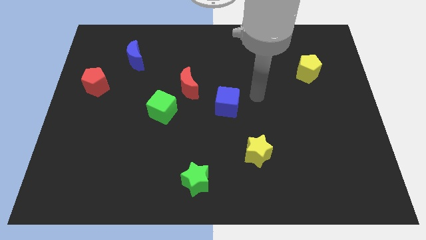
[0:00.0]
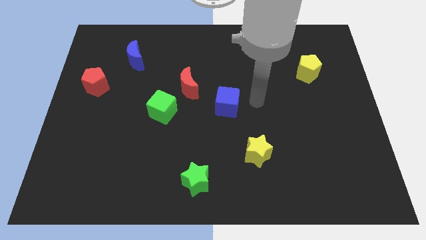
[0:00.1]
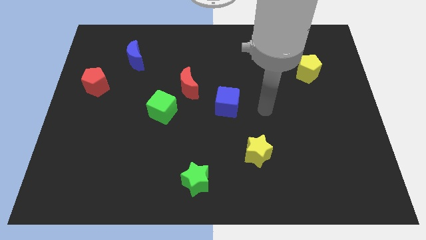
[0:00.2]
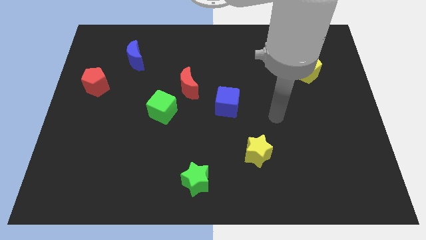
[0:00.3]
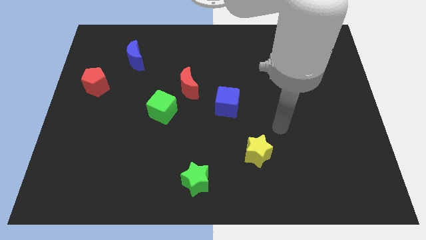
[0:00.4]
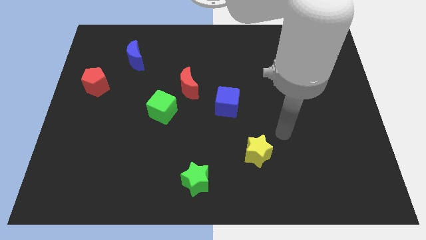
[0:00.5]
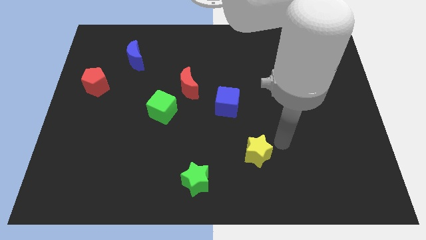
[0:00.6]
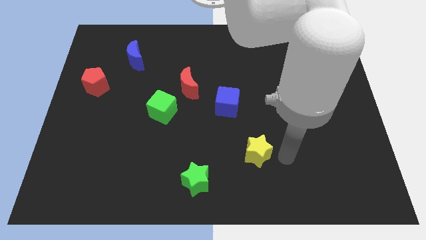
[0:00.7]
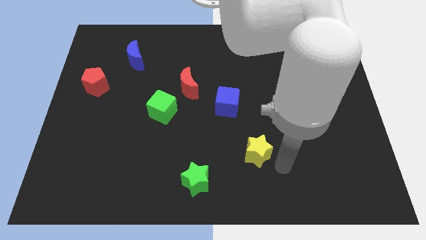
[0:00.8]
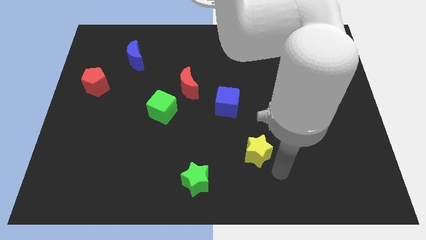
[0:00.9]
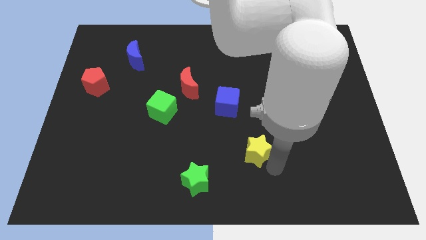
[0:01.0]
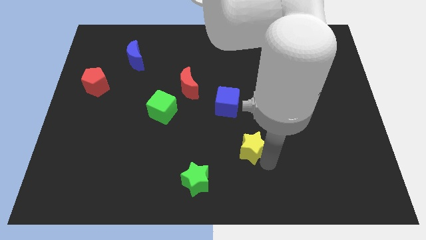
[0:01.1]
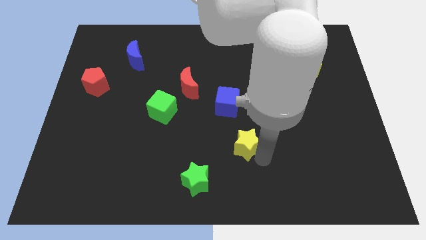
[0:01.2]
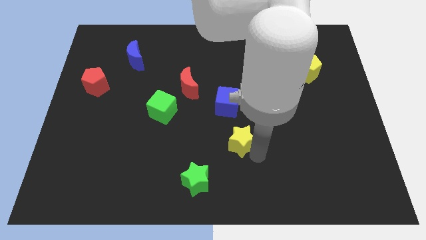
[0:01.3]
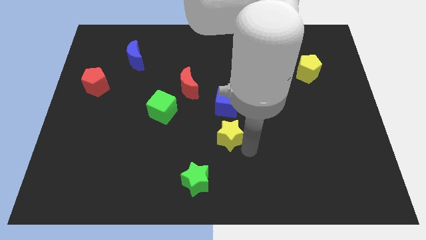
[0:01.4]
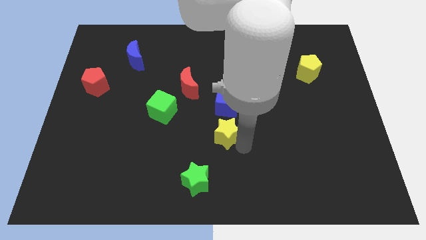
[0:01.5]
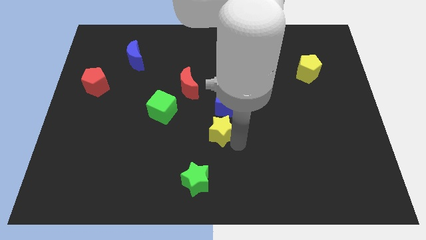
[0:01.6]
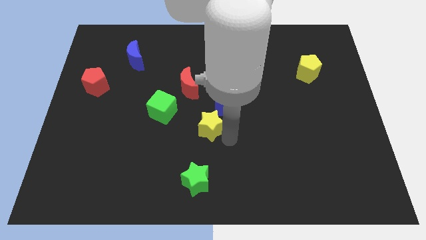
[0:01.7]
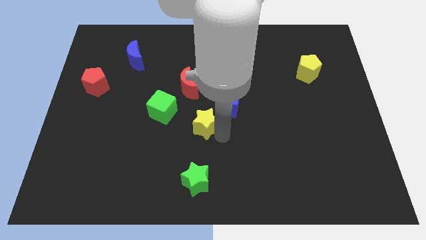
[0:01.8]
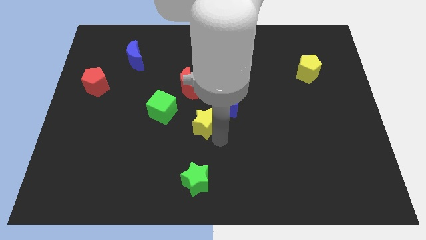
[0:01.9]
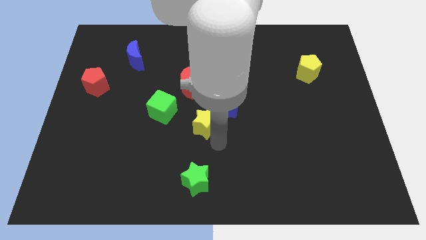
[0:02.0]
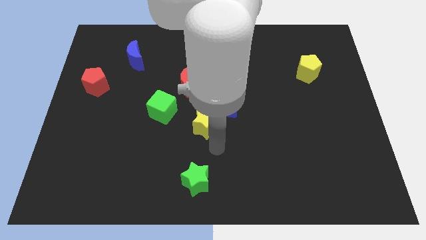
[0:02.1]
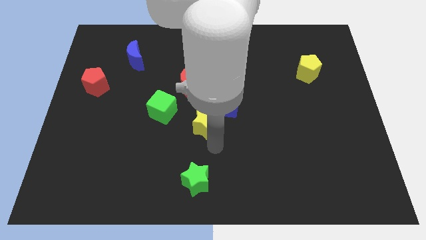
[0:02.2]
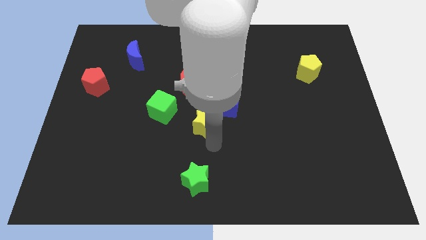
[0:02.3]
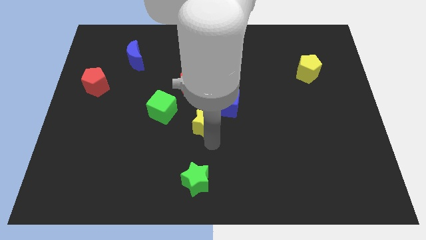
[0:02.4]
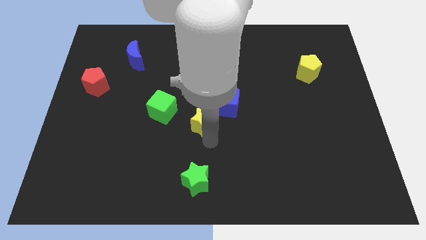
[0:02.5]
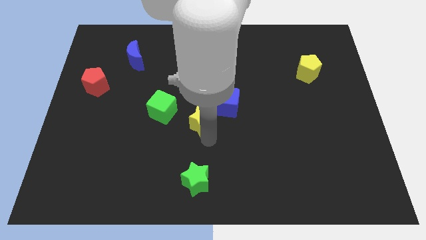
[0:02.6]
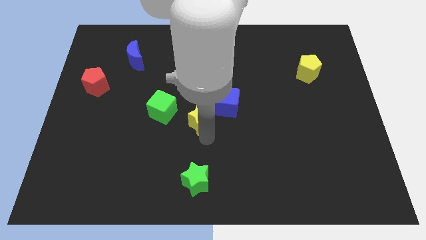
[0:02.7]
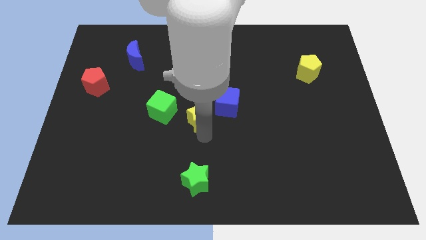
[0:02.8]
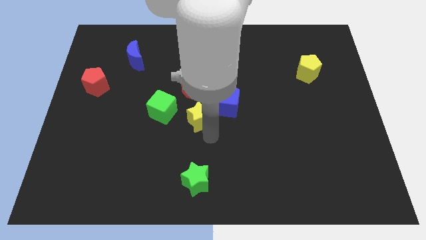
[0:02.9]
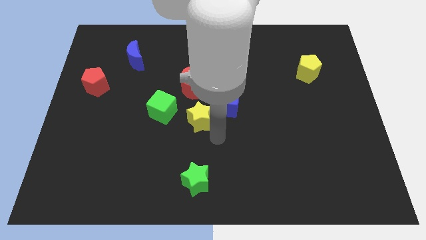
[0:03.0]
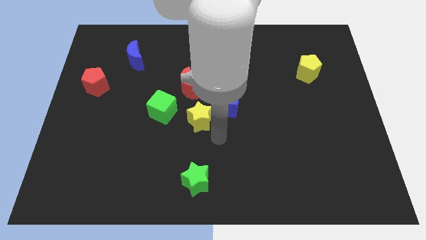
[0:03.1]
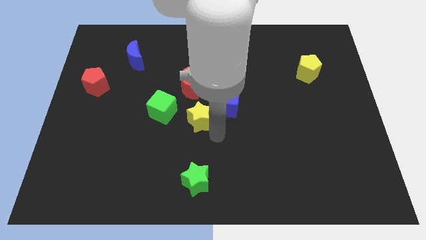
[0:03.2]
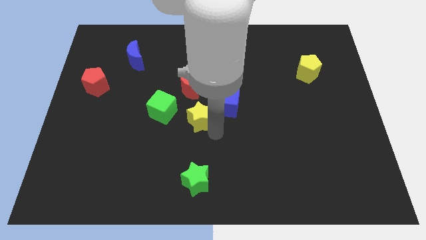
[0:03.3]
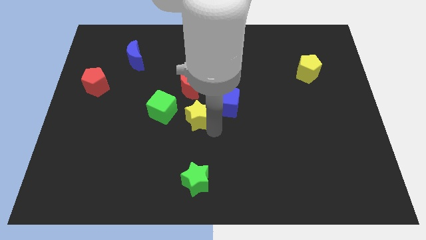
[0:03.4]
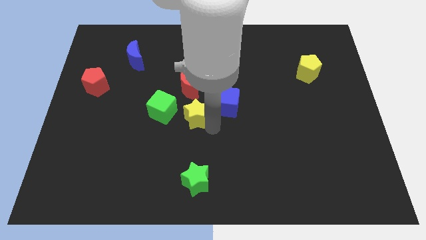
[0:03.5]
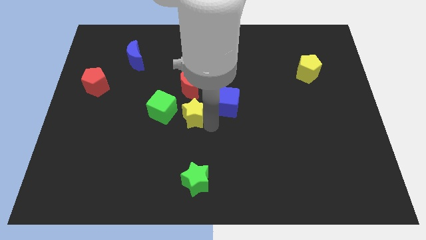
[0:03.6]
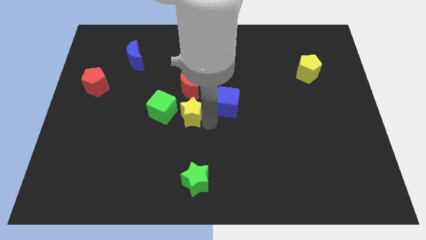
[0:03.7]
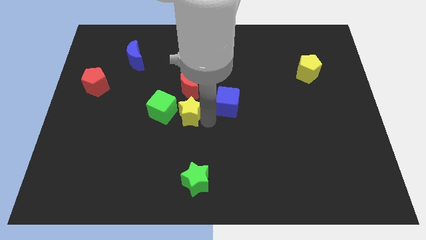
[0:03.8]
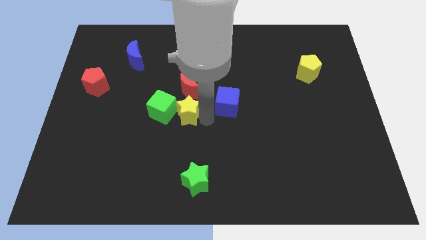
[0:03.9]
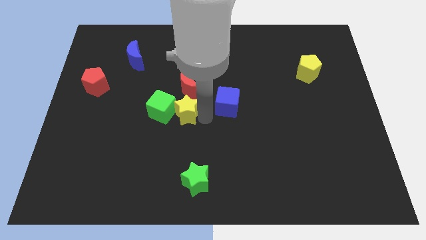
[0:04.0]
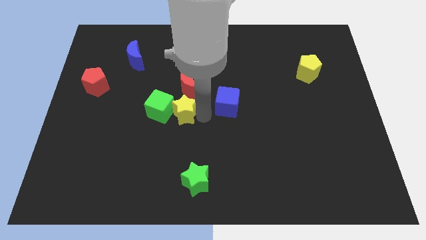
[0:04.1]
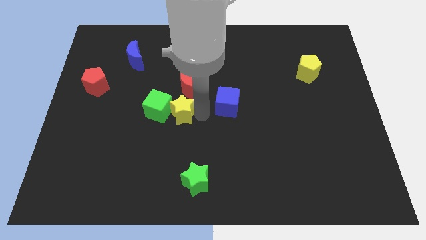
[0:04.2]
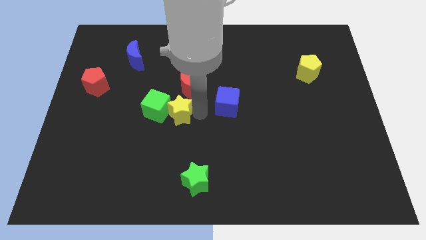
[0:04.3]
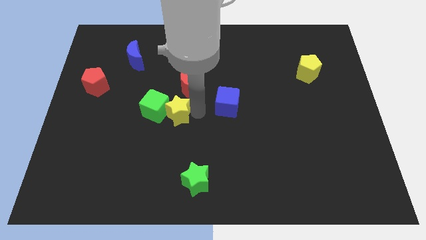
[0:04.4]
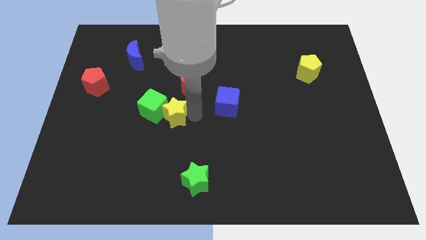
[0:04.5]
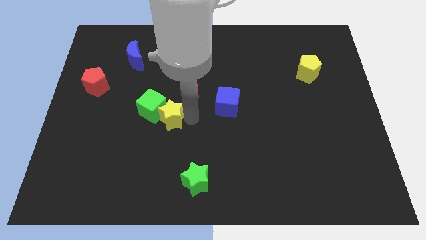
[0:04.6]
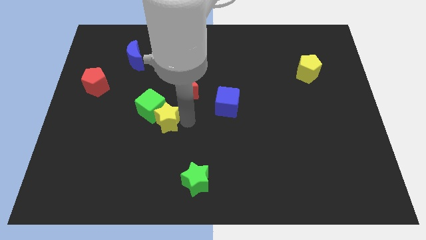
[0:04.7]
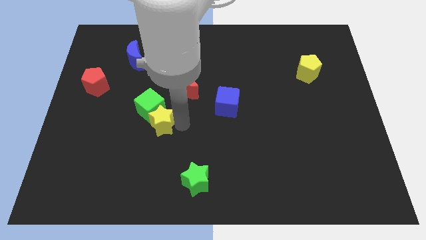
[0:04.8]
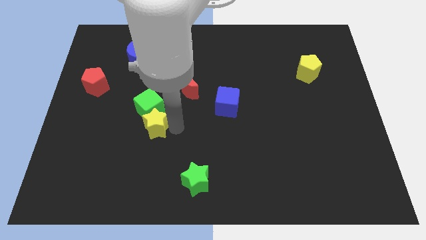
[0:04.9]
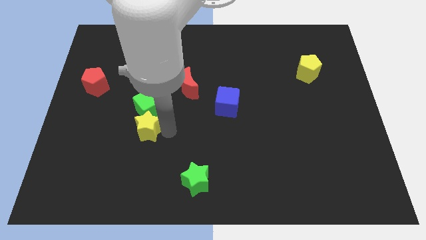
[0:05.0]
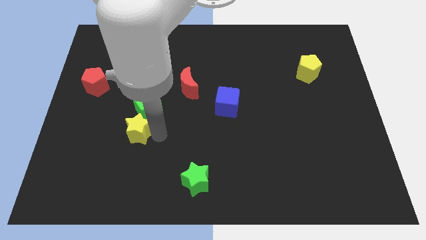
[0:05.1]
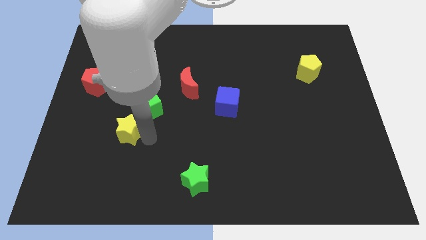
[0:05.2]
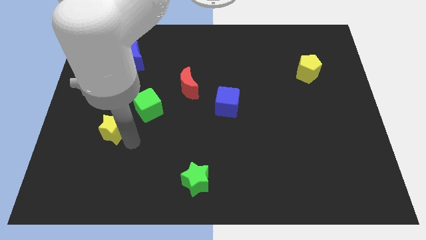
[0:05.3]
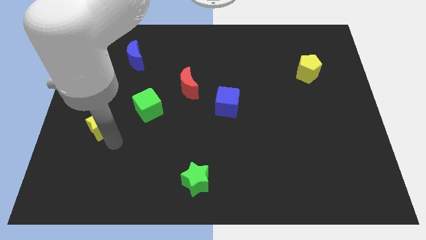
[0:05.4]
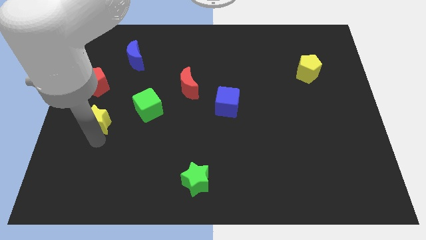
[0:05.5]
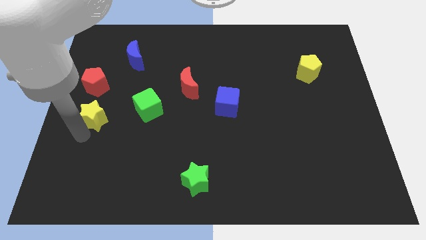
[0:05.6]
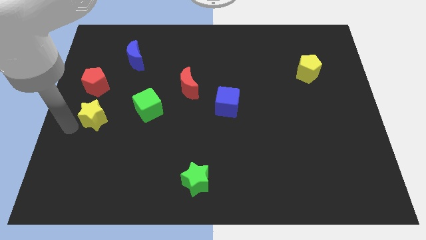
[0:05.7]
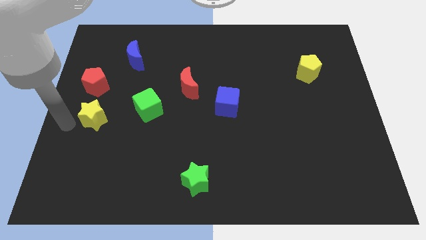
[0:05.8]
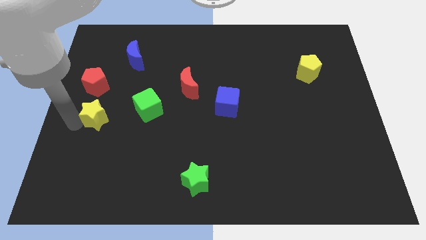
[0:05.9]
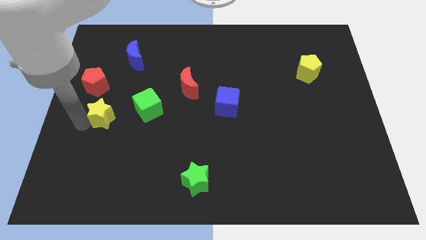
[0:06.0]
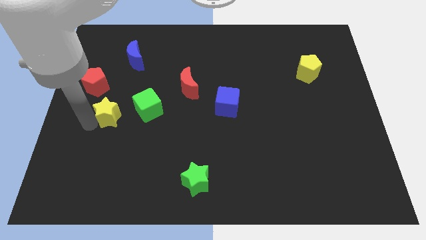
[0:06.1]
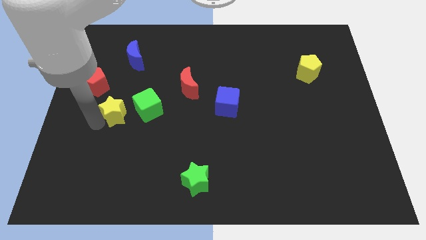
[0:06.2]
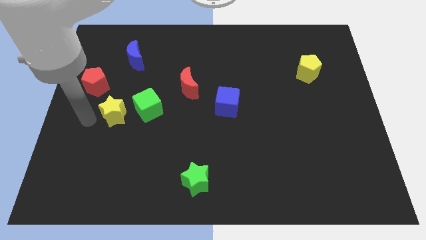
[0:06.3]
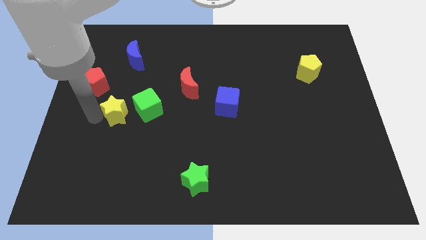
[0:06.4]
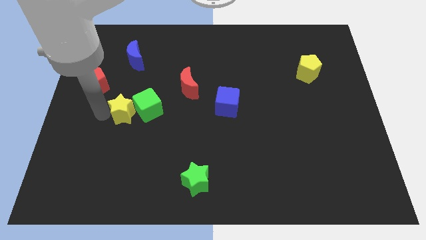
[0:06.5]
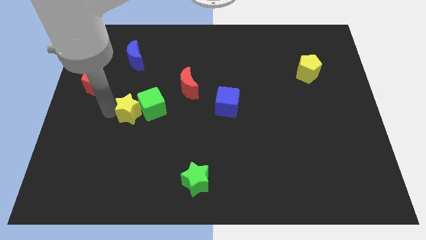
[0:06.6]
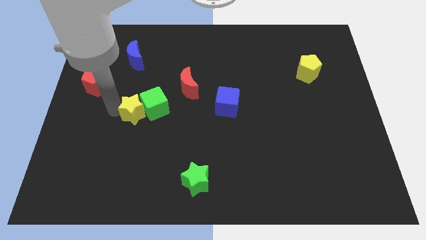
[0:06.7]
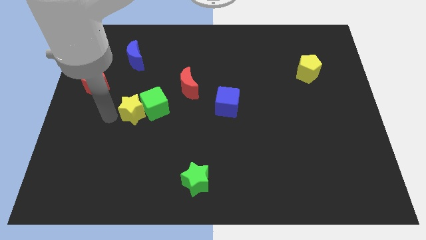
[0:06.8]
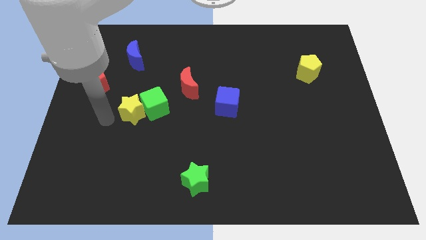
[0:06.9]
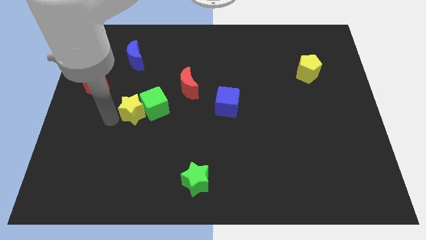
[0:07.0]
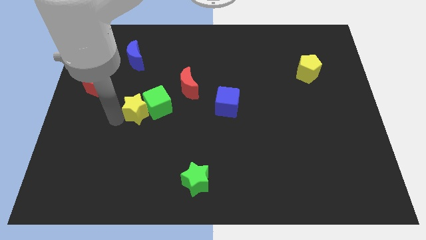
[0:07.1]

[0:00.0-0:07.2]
move the yellow star up and left

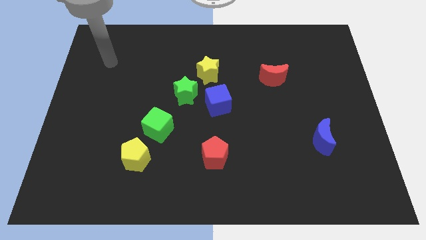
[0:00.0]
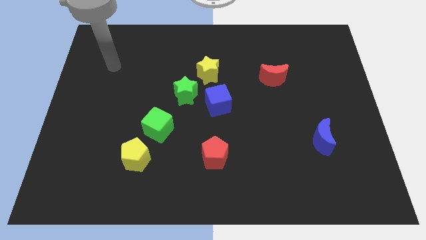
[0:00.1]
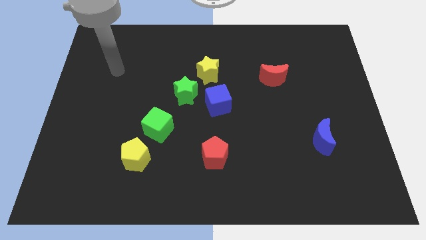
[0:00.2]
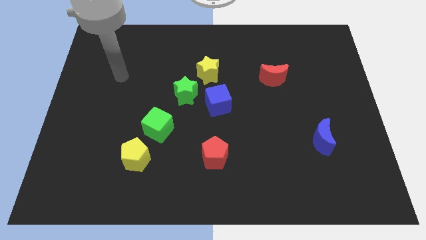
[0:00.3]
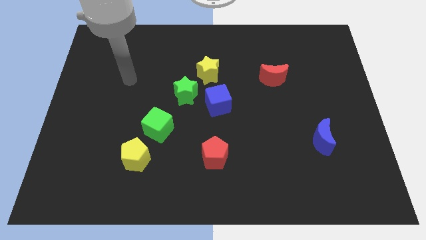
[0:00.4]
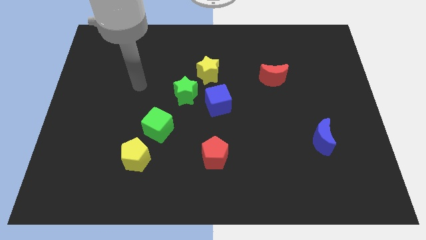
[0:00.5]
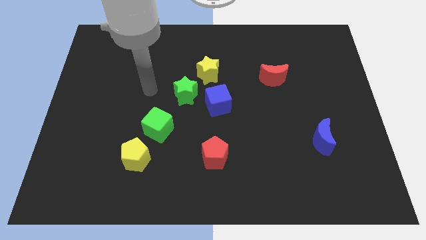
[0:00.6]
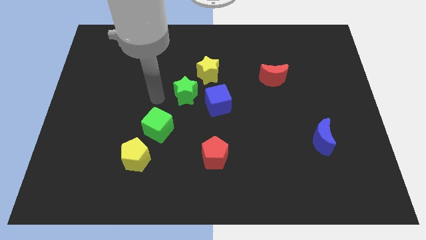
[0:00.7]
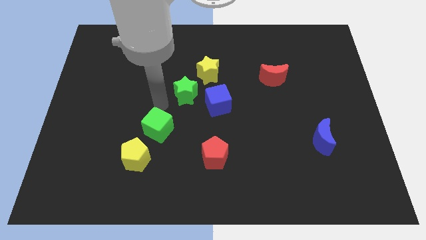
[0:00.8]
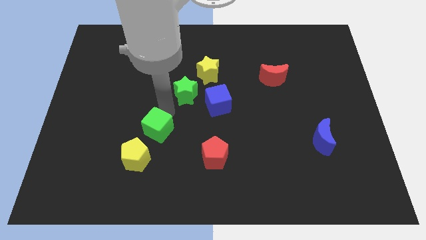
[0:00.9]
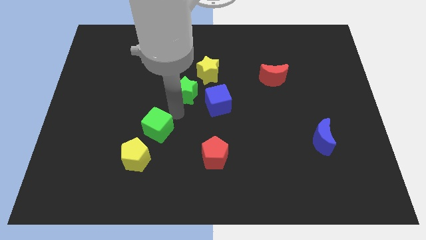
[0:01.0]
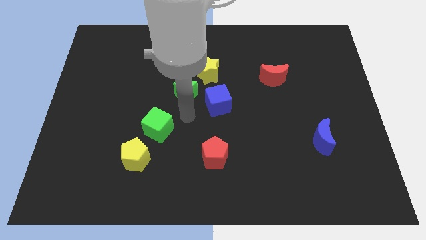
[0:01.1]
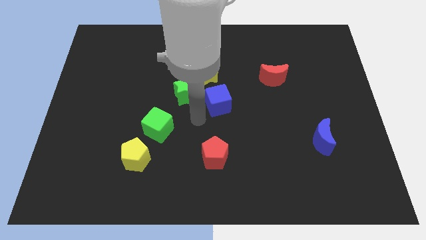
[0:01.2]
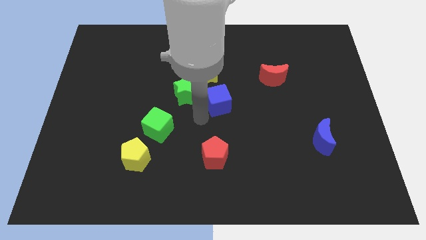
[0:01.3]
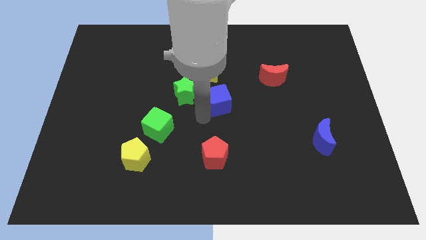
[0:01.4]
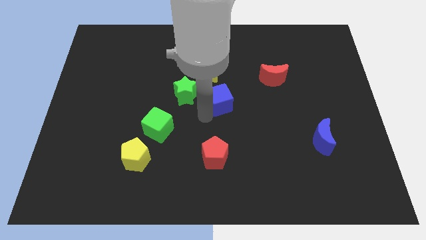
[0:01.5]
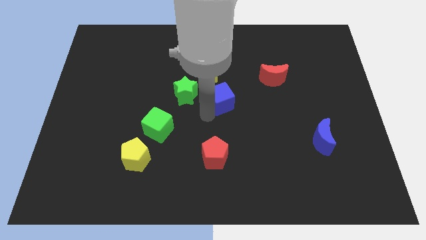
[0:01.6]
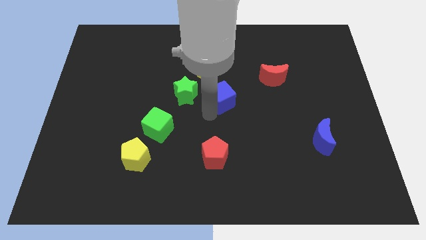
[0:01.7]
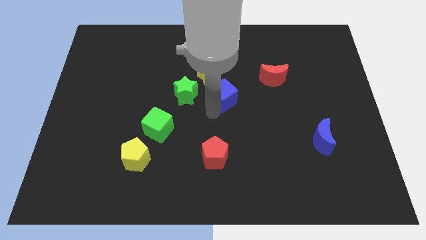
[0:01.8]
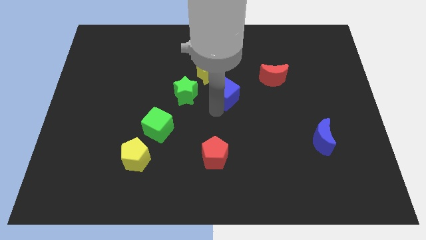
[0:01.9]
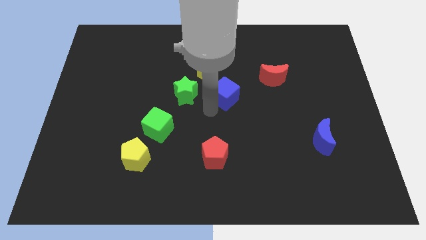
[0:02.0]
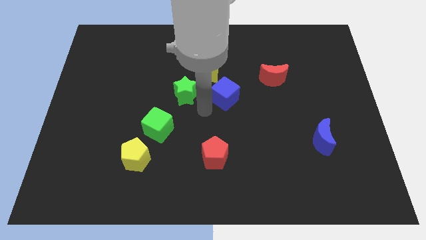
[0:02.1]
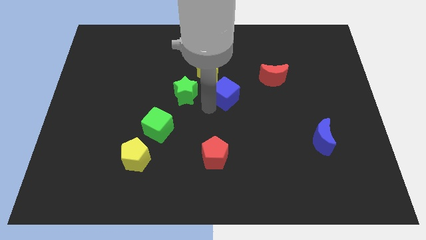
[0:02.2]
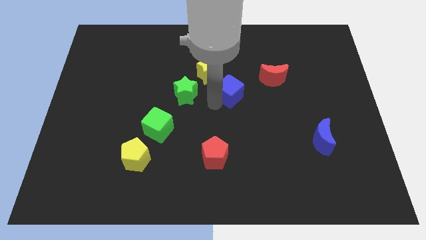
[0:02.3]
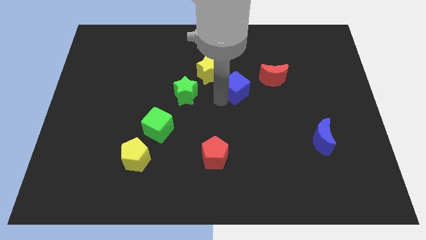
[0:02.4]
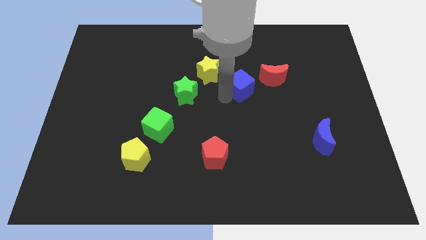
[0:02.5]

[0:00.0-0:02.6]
move the blue cube somewhat upwards and right
